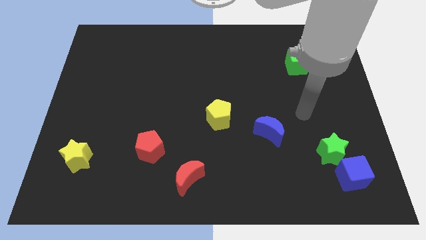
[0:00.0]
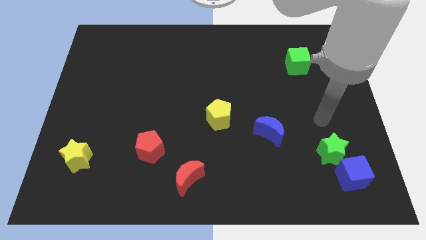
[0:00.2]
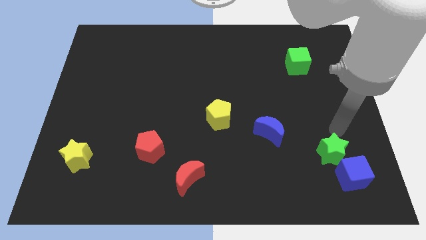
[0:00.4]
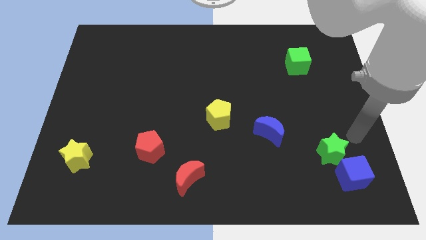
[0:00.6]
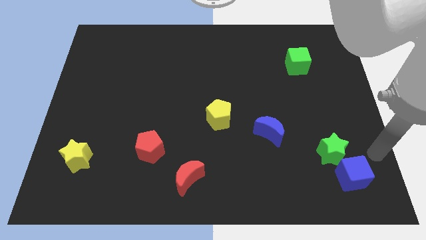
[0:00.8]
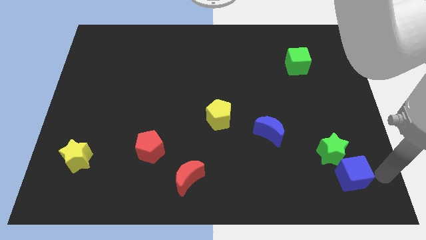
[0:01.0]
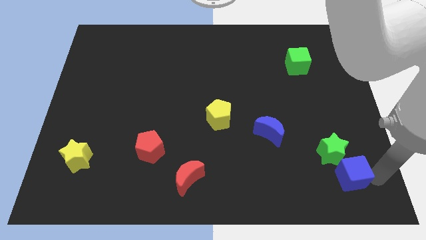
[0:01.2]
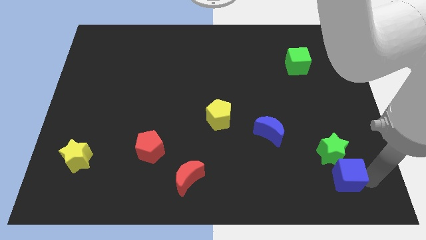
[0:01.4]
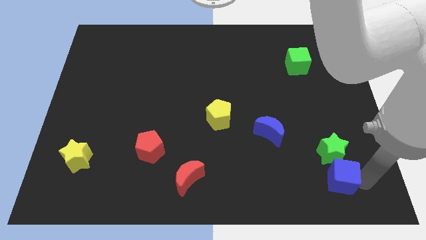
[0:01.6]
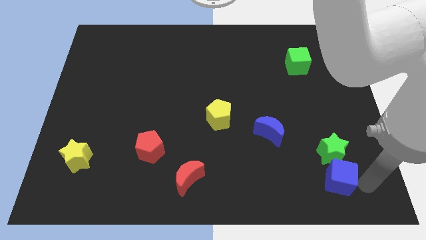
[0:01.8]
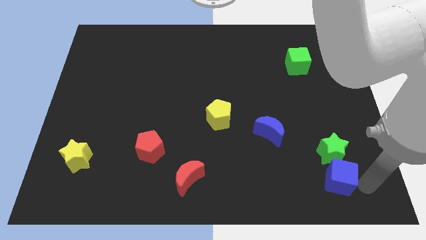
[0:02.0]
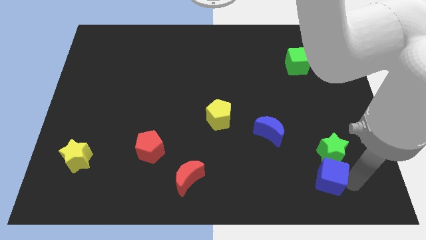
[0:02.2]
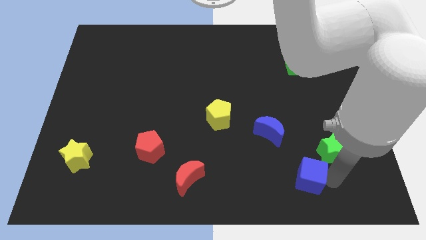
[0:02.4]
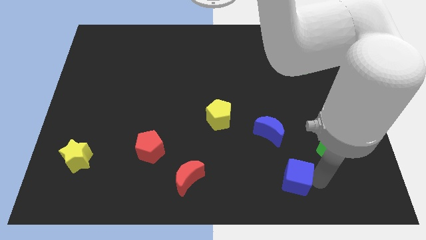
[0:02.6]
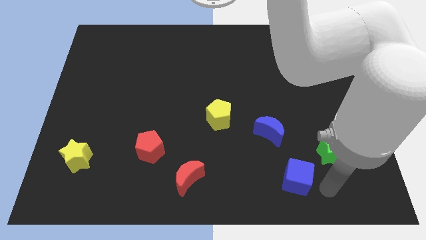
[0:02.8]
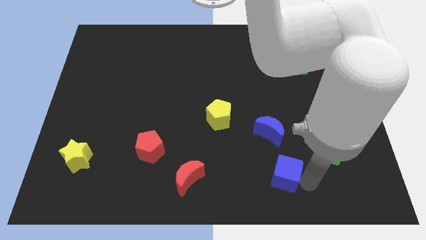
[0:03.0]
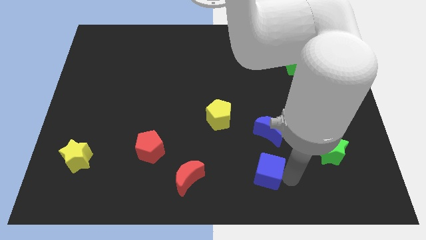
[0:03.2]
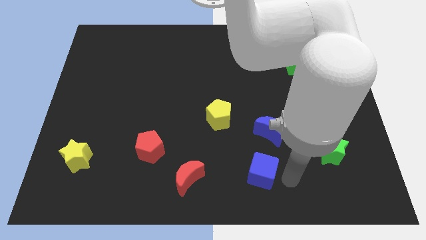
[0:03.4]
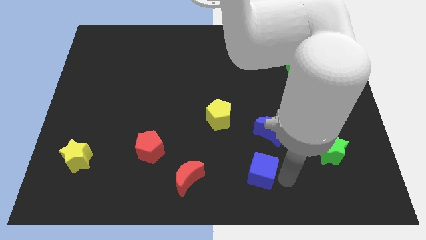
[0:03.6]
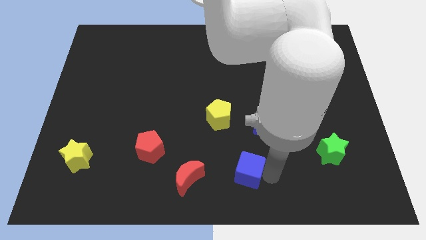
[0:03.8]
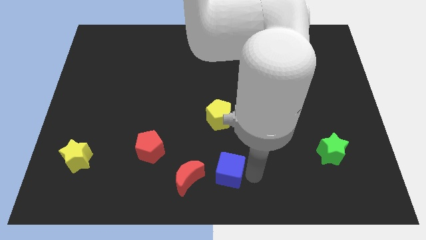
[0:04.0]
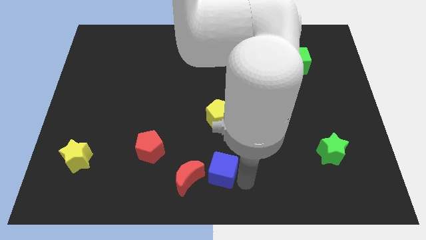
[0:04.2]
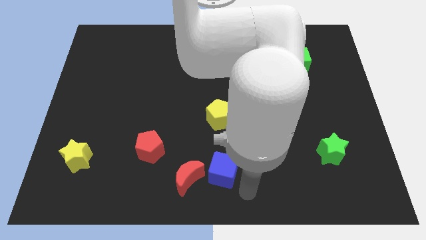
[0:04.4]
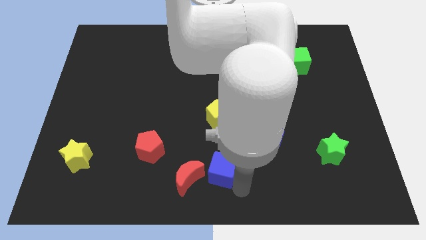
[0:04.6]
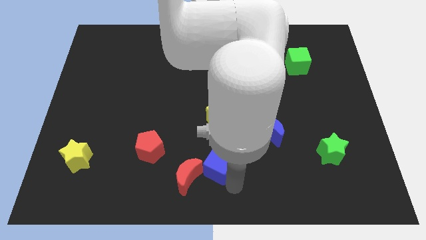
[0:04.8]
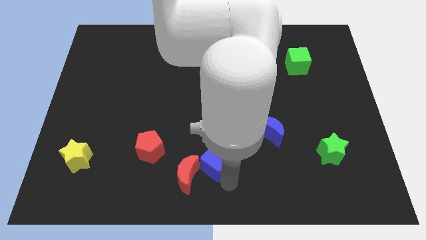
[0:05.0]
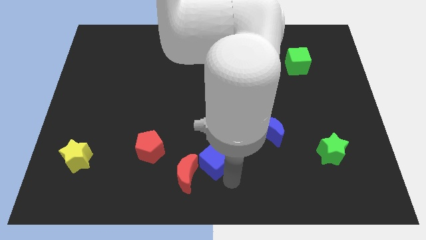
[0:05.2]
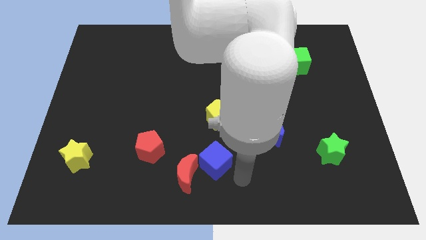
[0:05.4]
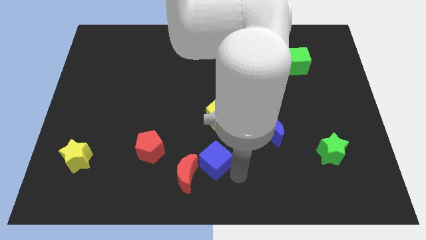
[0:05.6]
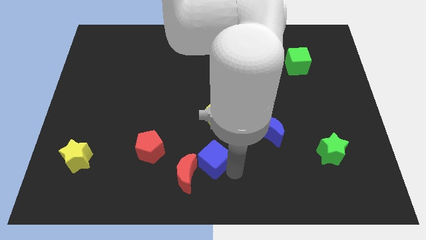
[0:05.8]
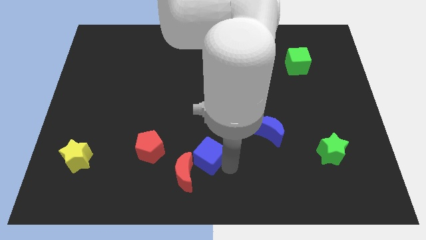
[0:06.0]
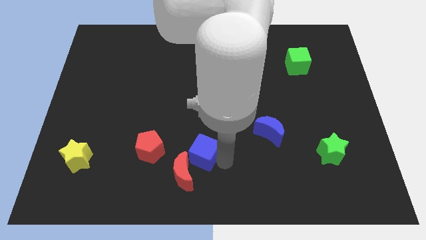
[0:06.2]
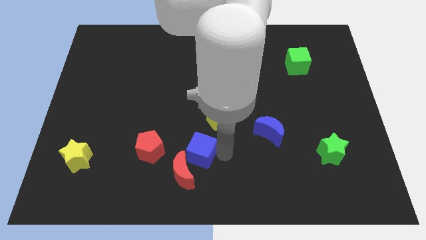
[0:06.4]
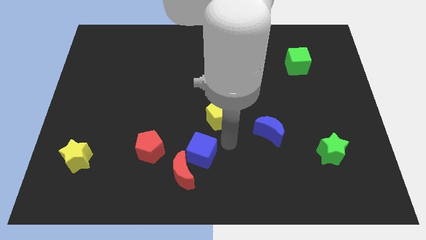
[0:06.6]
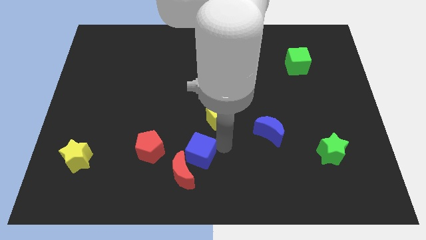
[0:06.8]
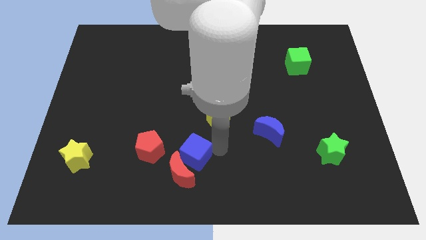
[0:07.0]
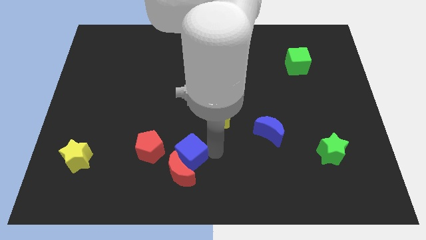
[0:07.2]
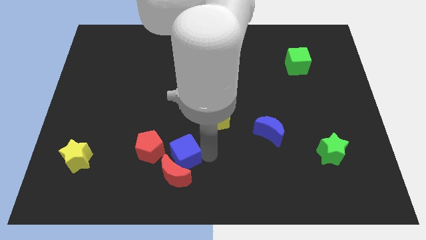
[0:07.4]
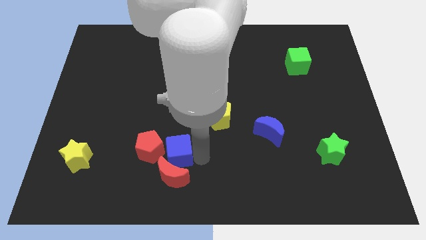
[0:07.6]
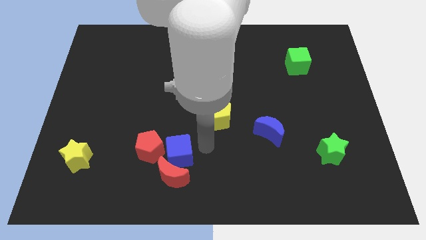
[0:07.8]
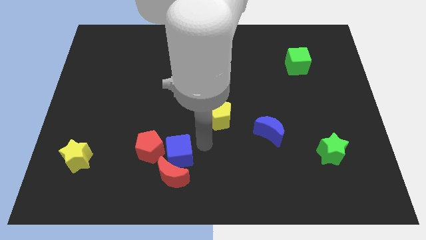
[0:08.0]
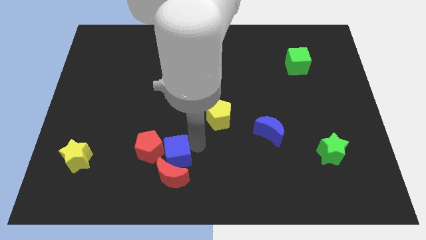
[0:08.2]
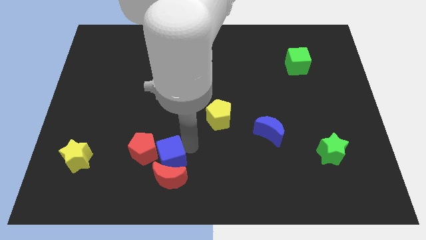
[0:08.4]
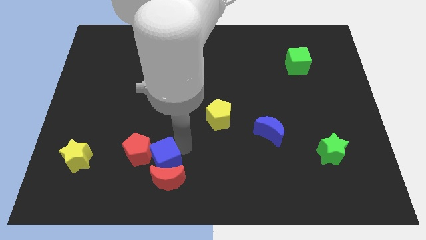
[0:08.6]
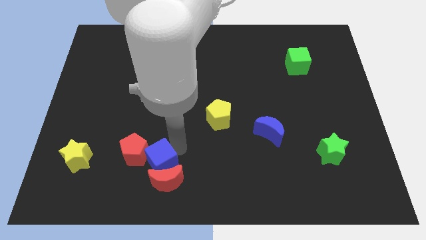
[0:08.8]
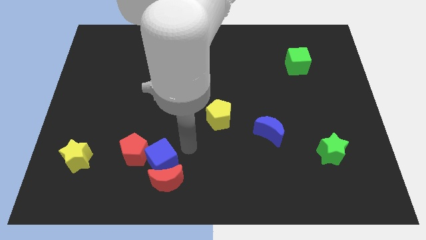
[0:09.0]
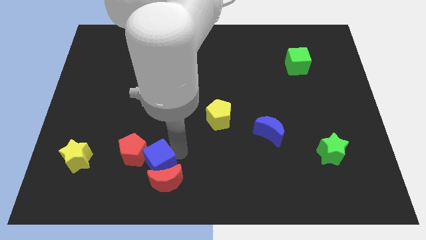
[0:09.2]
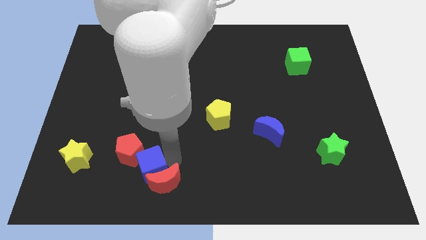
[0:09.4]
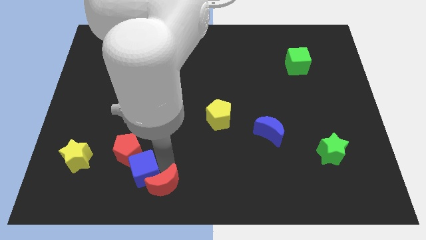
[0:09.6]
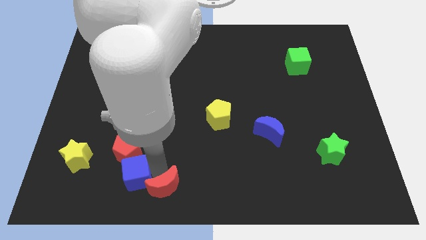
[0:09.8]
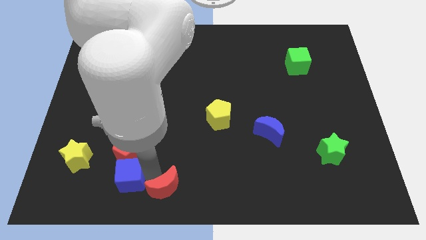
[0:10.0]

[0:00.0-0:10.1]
push the blue cube to the bottom left side of the red pentagon

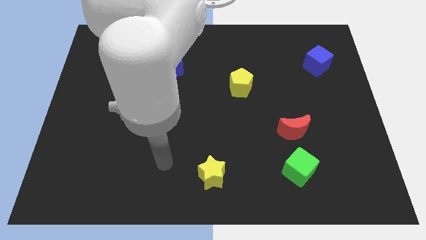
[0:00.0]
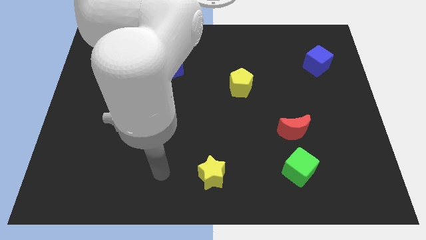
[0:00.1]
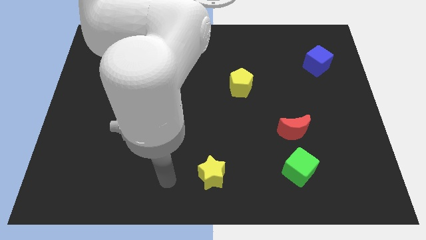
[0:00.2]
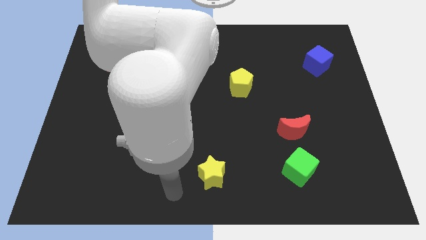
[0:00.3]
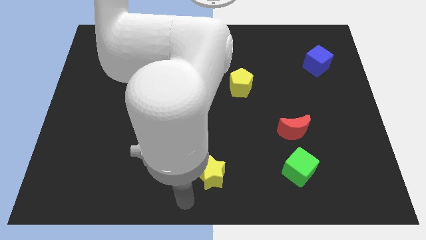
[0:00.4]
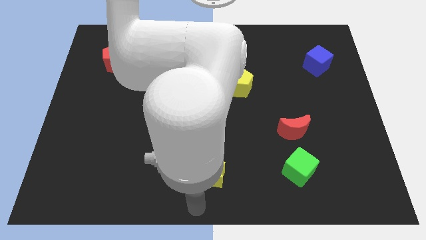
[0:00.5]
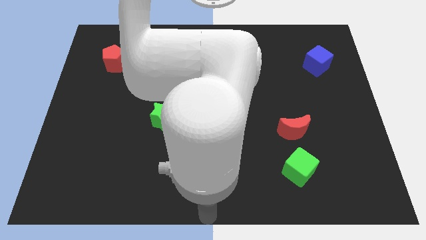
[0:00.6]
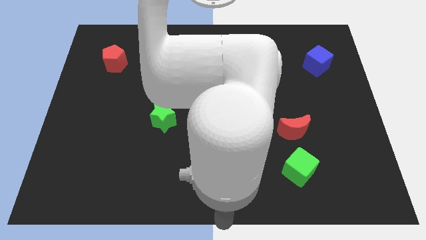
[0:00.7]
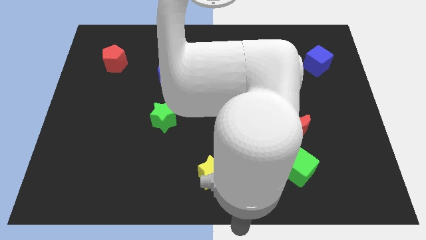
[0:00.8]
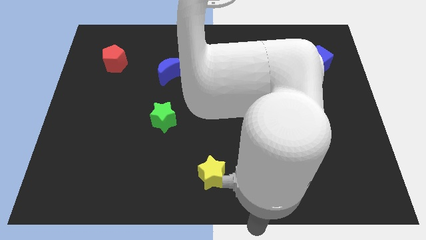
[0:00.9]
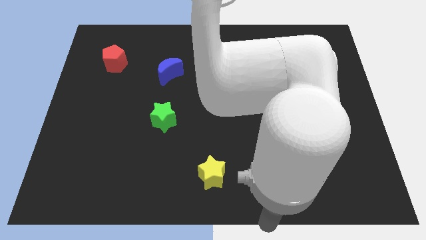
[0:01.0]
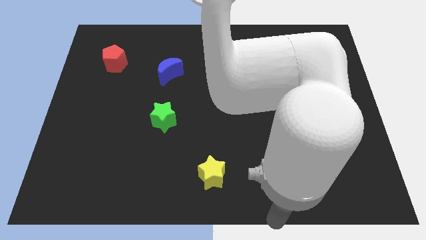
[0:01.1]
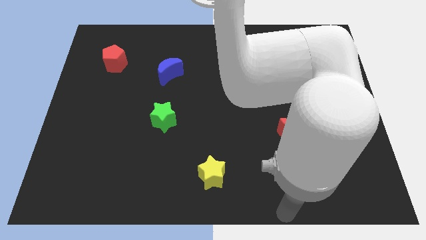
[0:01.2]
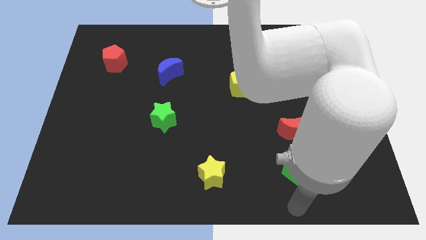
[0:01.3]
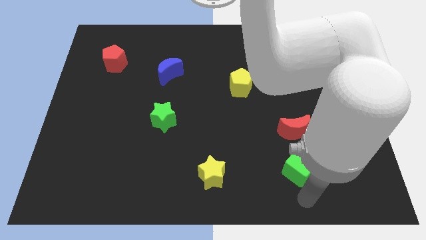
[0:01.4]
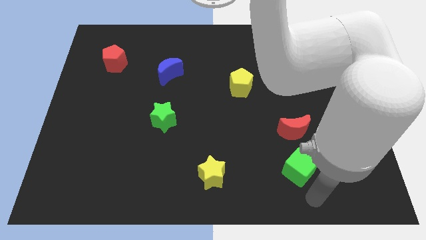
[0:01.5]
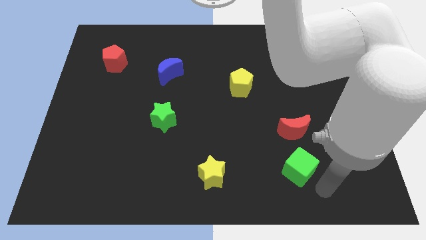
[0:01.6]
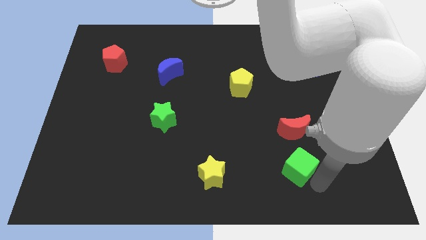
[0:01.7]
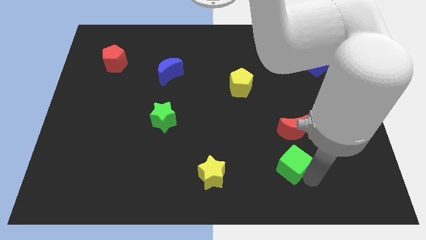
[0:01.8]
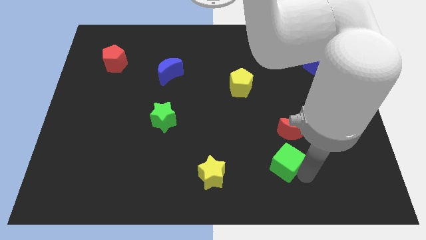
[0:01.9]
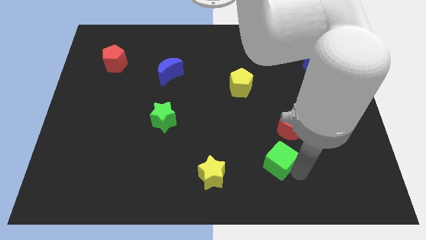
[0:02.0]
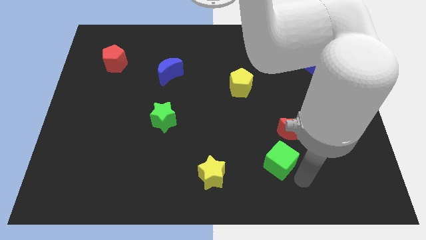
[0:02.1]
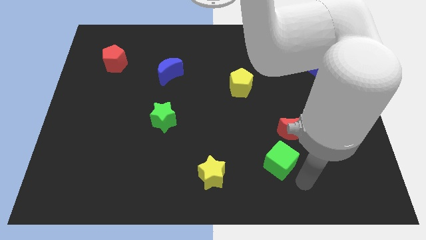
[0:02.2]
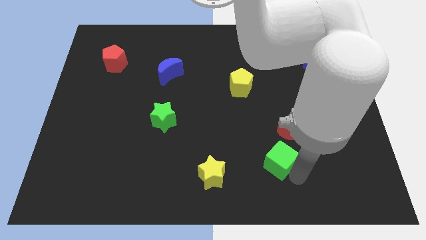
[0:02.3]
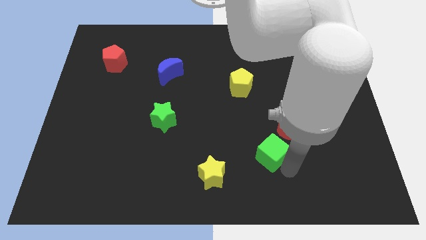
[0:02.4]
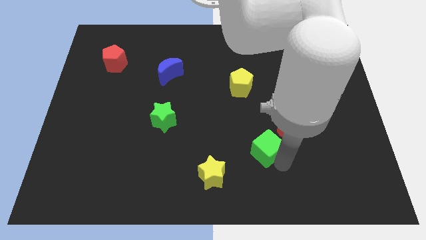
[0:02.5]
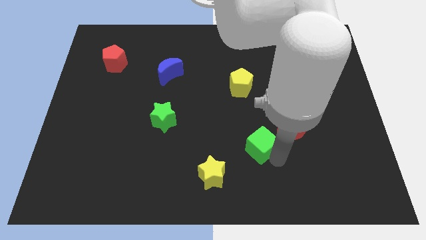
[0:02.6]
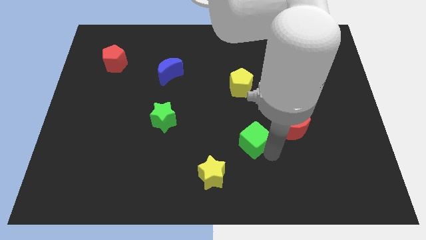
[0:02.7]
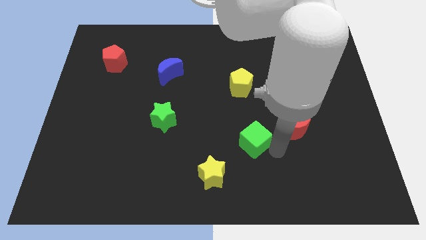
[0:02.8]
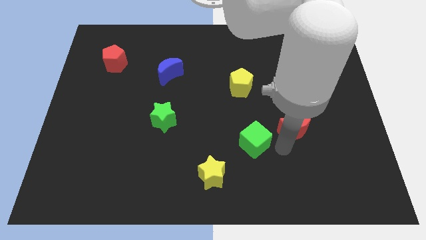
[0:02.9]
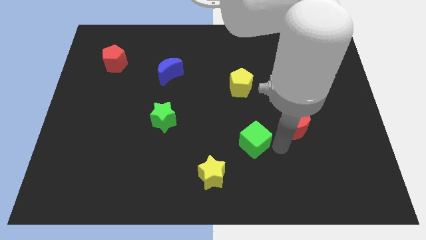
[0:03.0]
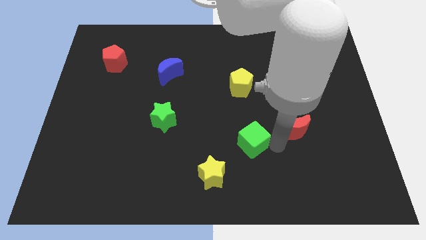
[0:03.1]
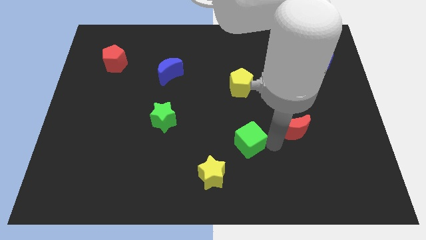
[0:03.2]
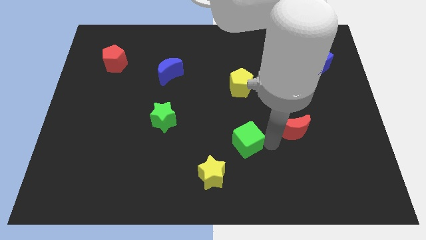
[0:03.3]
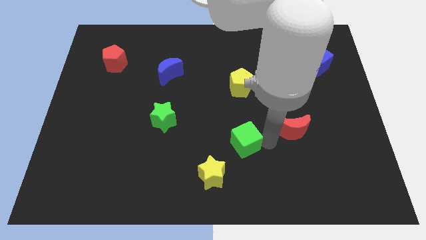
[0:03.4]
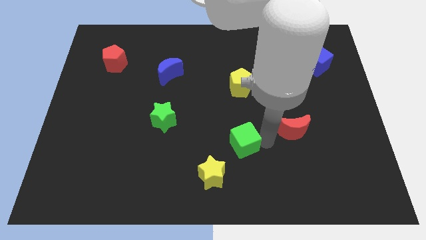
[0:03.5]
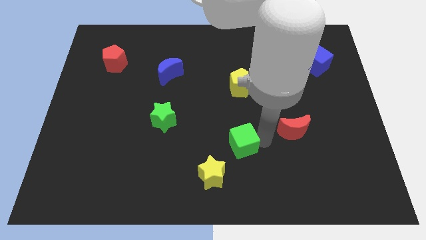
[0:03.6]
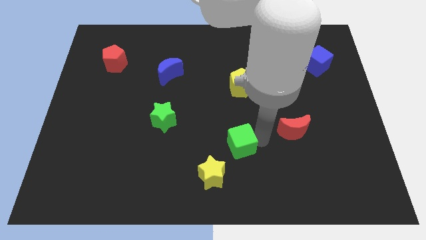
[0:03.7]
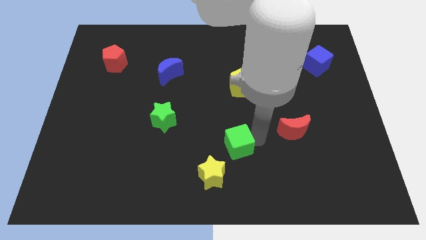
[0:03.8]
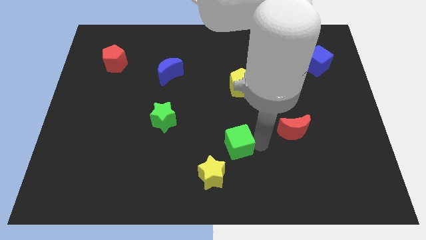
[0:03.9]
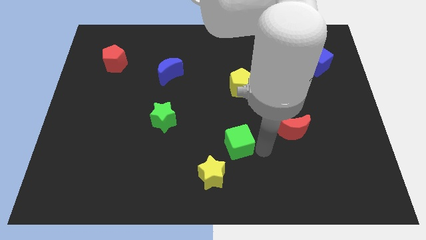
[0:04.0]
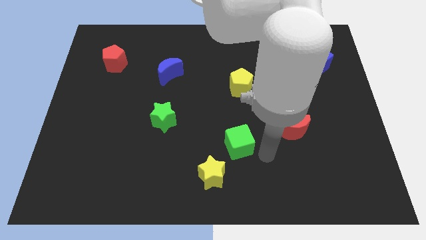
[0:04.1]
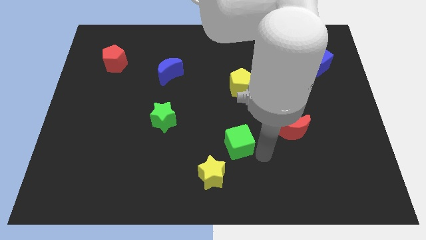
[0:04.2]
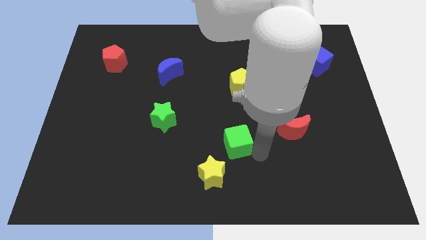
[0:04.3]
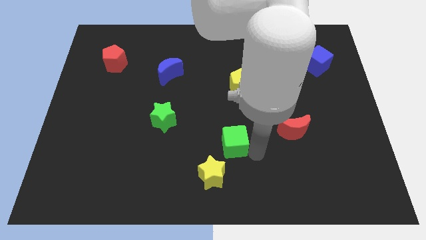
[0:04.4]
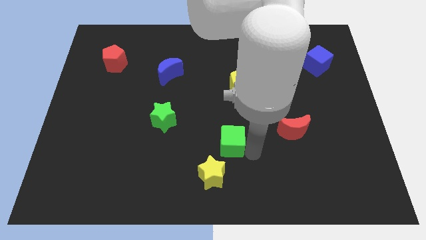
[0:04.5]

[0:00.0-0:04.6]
slide the green cube to the top of the yellow star
